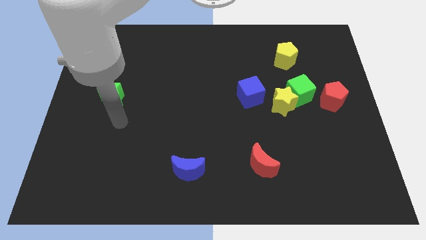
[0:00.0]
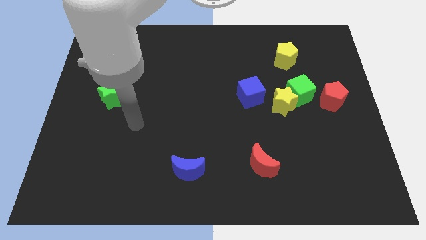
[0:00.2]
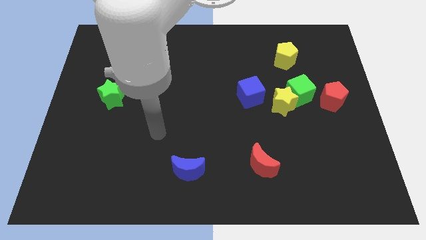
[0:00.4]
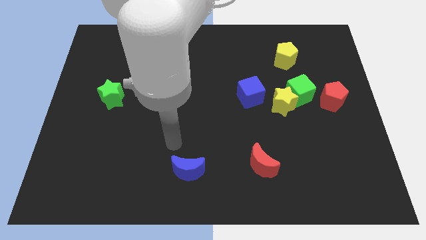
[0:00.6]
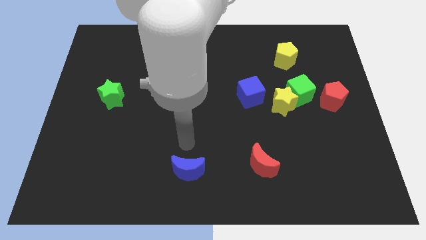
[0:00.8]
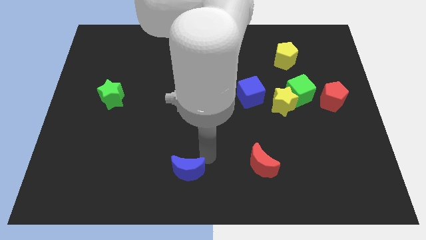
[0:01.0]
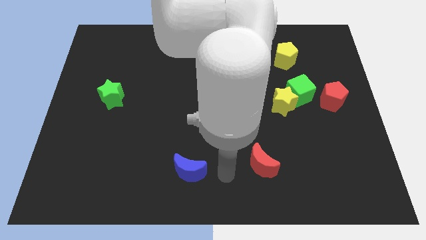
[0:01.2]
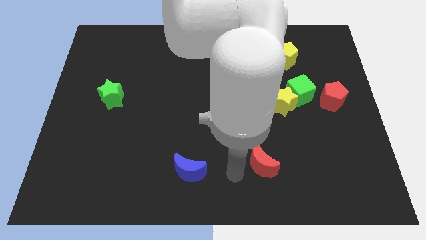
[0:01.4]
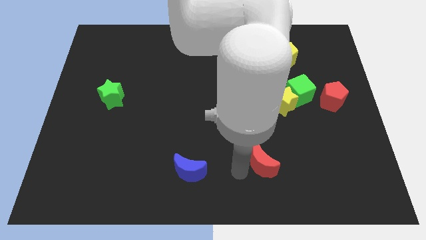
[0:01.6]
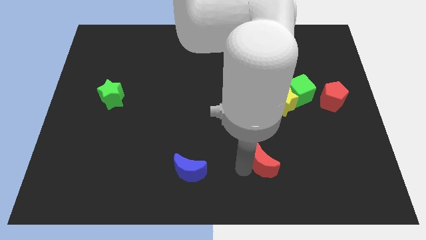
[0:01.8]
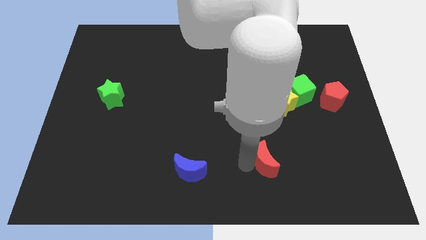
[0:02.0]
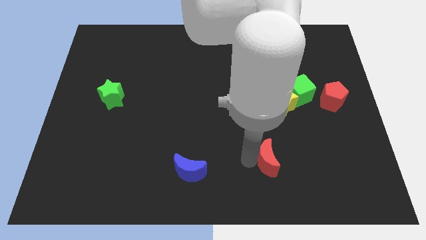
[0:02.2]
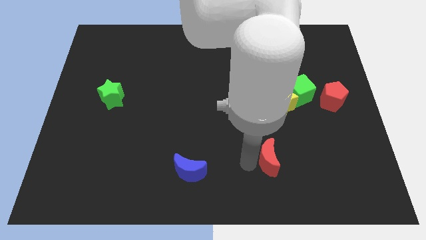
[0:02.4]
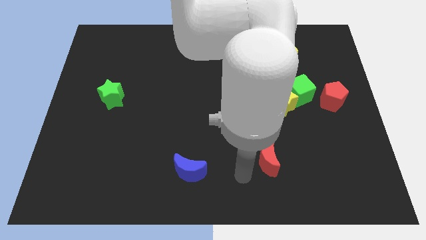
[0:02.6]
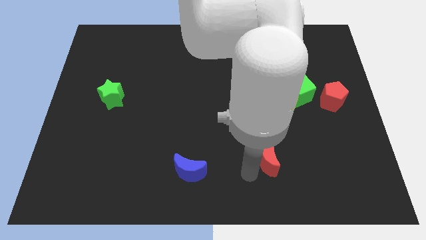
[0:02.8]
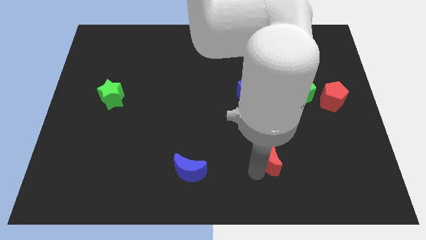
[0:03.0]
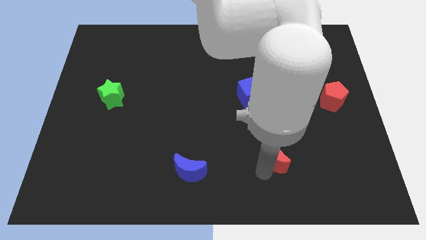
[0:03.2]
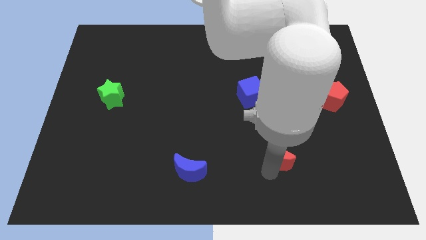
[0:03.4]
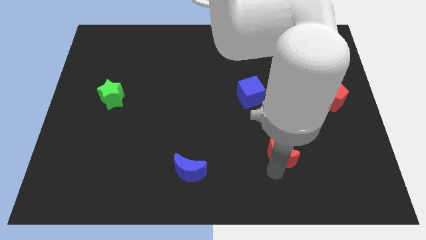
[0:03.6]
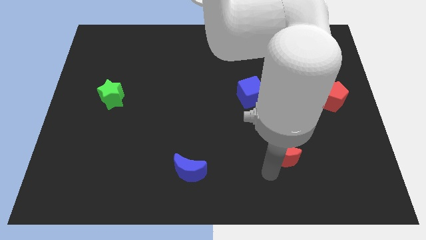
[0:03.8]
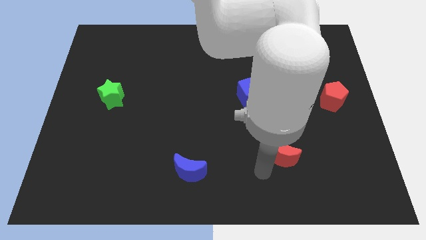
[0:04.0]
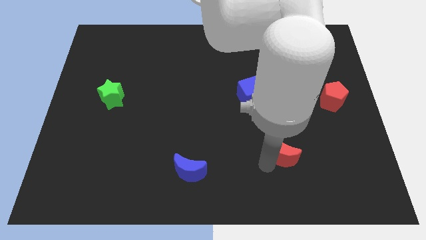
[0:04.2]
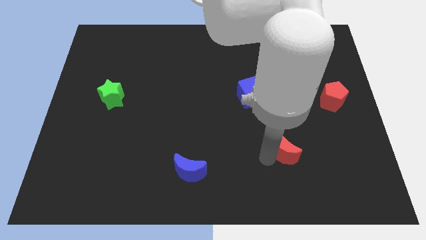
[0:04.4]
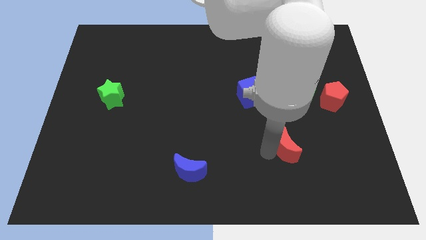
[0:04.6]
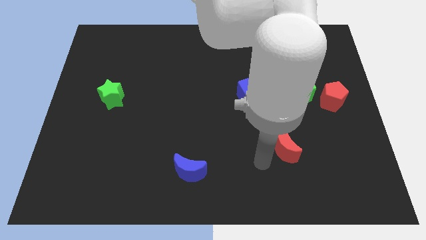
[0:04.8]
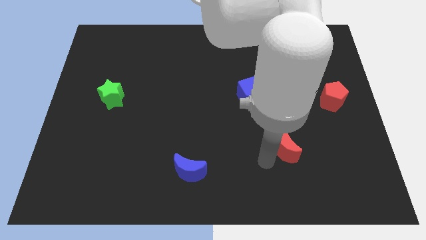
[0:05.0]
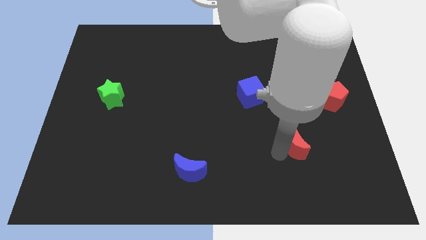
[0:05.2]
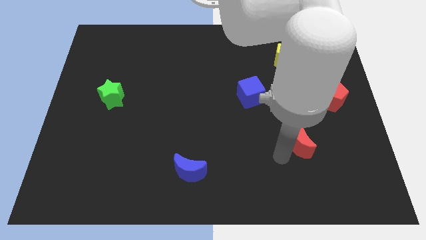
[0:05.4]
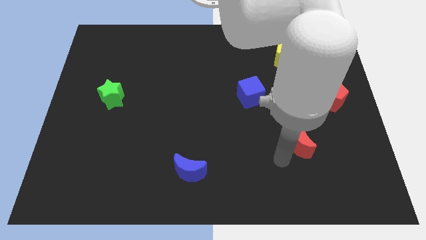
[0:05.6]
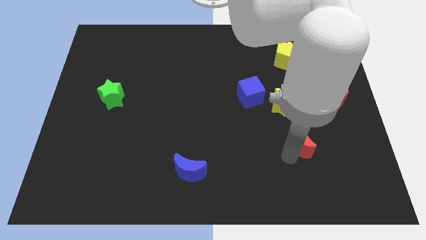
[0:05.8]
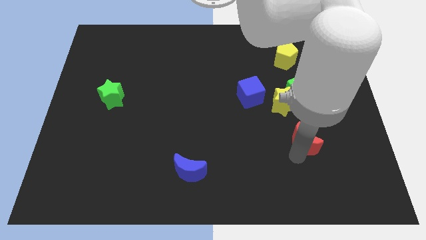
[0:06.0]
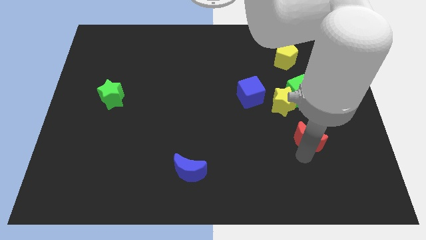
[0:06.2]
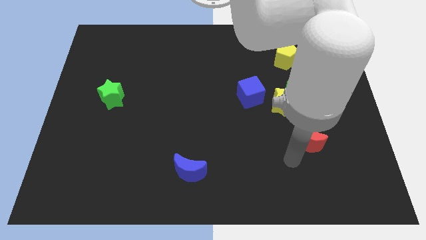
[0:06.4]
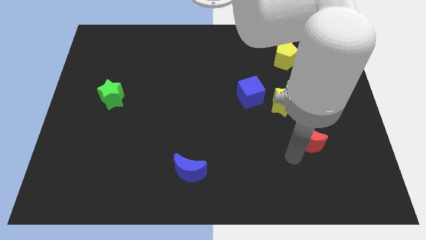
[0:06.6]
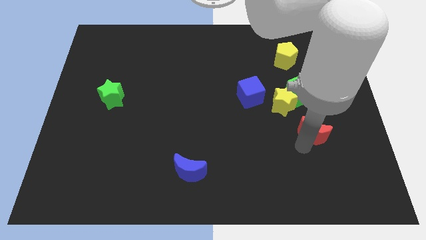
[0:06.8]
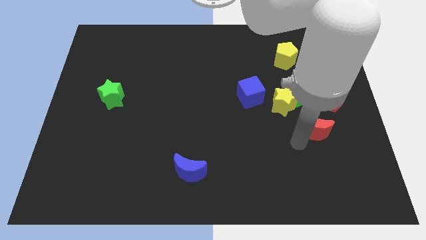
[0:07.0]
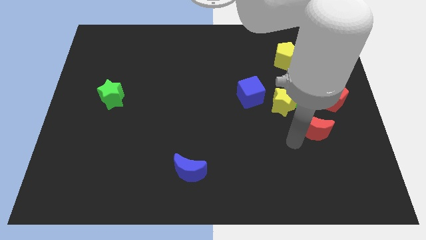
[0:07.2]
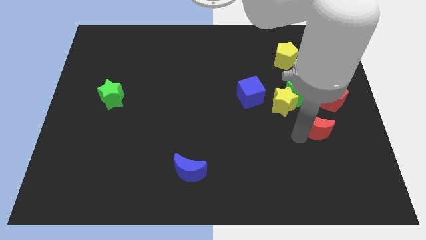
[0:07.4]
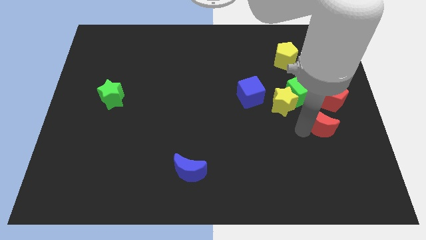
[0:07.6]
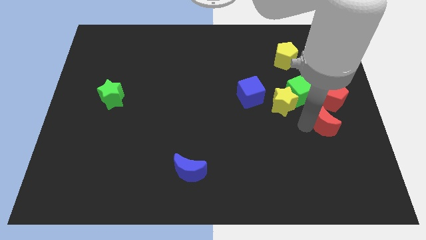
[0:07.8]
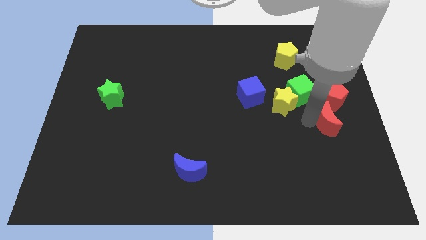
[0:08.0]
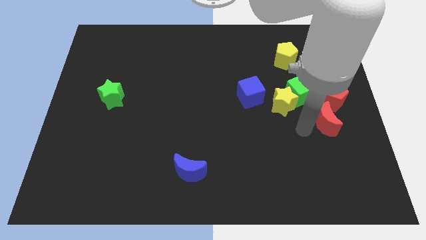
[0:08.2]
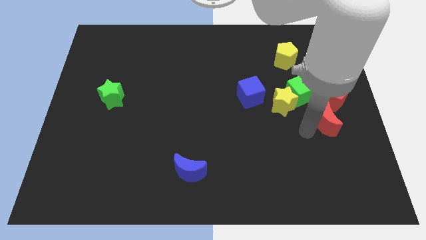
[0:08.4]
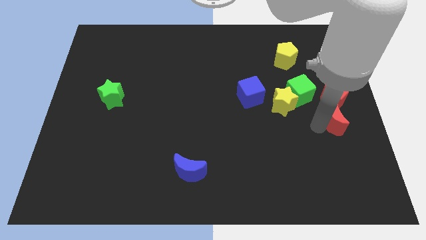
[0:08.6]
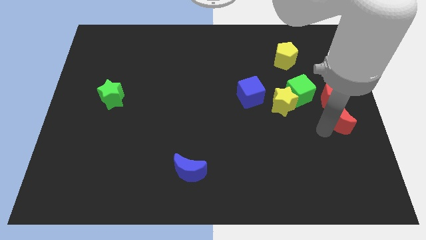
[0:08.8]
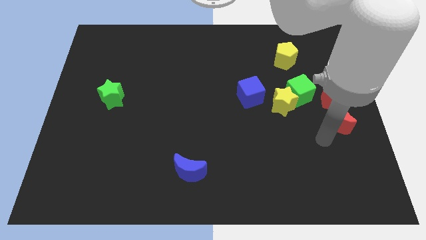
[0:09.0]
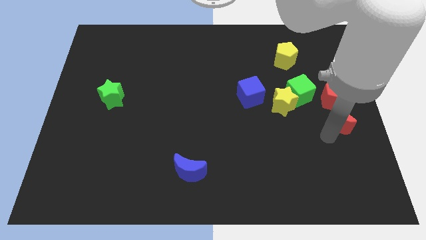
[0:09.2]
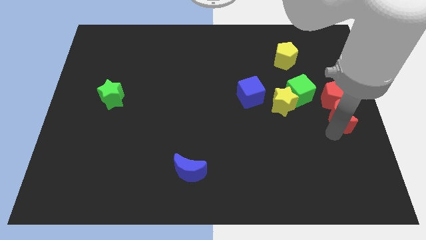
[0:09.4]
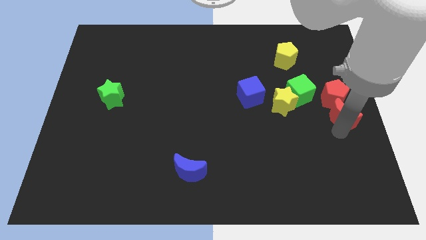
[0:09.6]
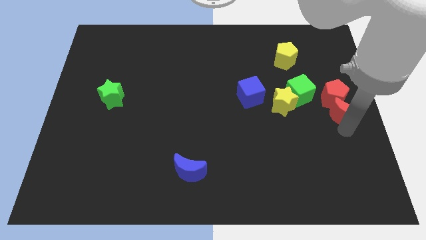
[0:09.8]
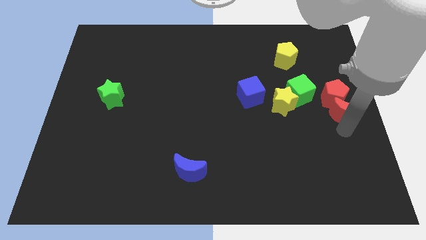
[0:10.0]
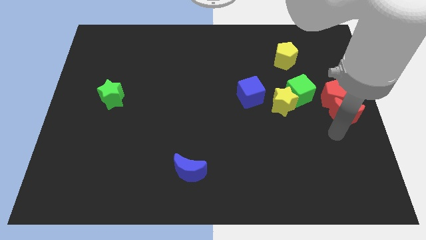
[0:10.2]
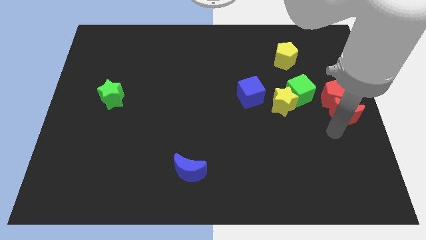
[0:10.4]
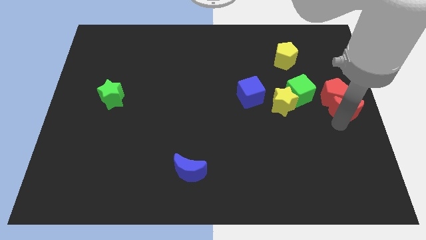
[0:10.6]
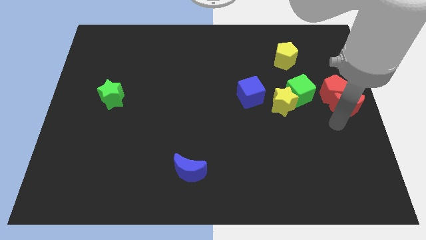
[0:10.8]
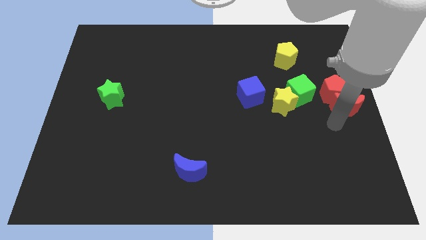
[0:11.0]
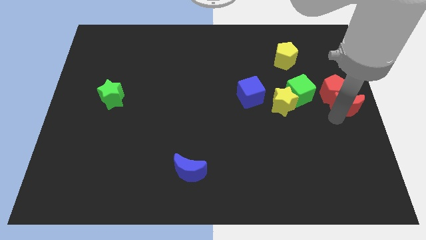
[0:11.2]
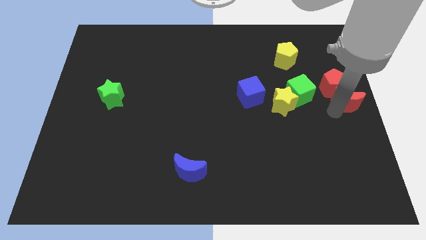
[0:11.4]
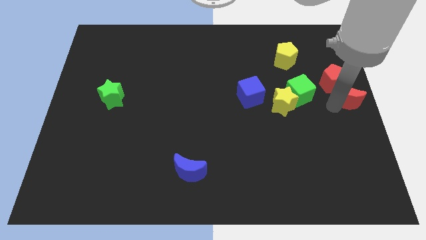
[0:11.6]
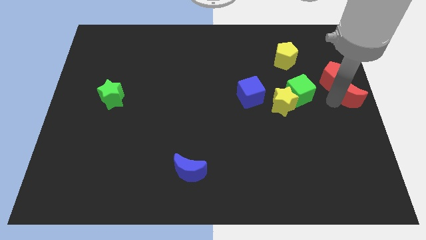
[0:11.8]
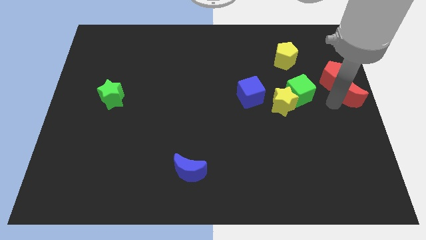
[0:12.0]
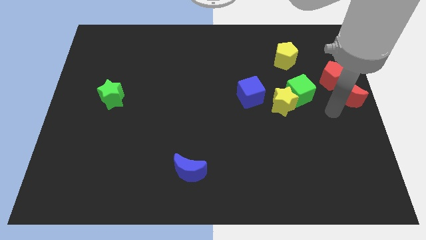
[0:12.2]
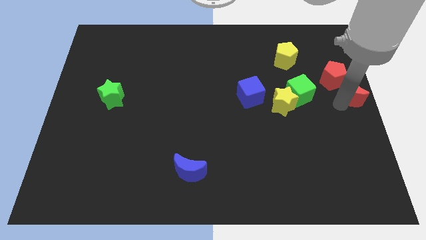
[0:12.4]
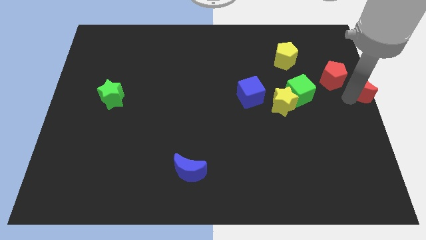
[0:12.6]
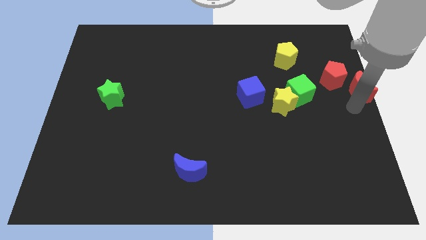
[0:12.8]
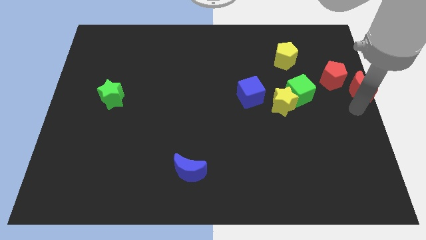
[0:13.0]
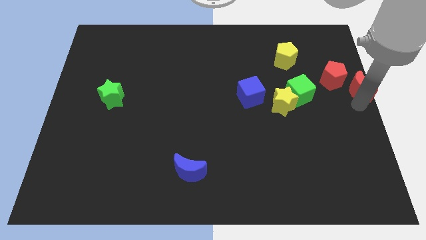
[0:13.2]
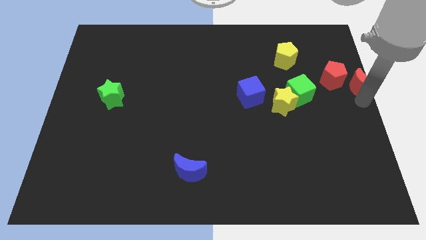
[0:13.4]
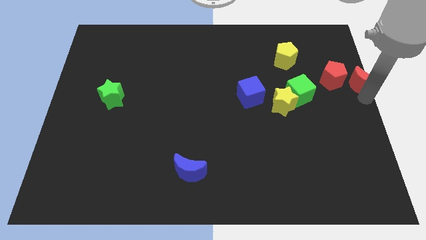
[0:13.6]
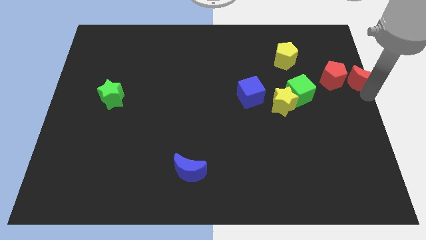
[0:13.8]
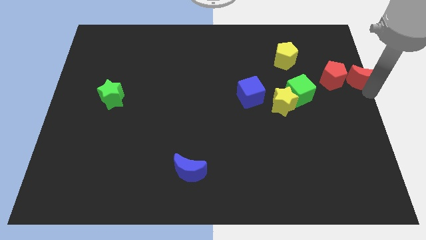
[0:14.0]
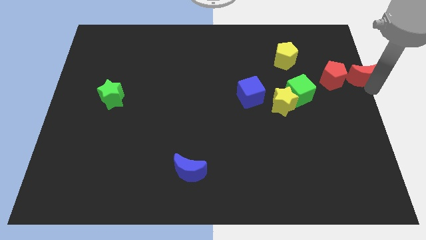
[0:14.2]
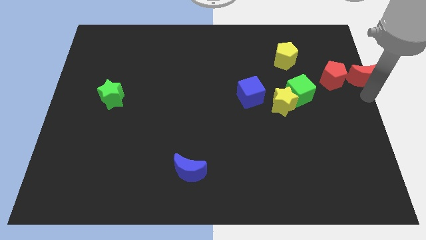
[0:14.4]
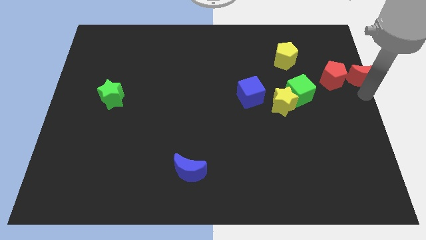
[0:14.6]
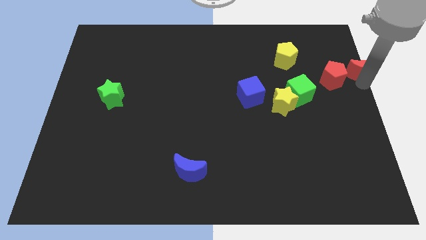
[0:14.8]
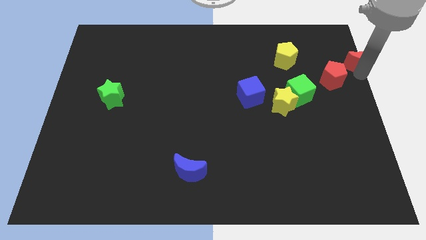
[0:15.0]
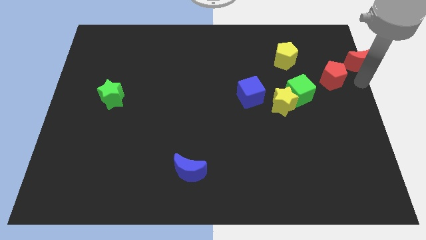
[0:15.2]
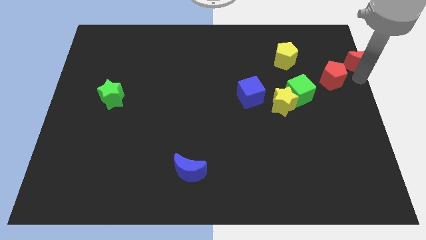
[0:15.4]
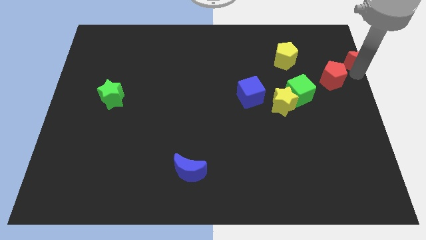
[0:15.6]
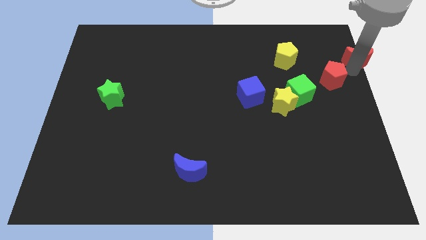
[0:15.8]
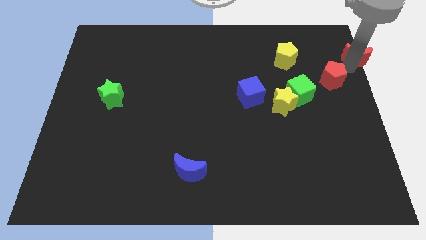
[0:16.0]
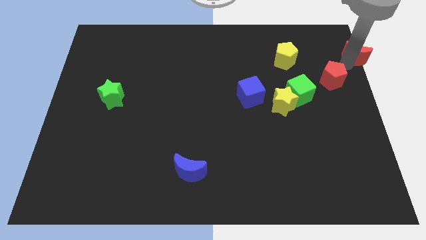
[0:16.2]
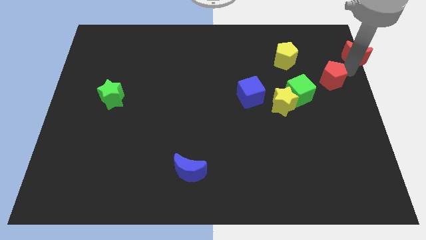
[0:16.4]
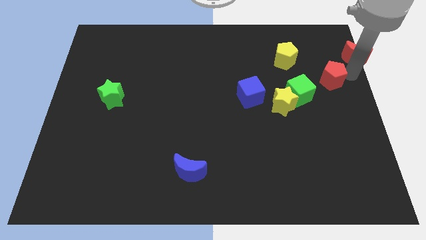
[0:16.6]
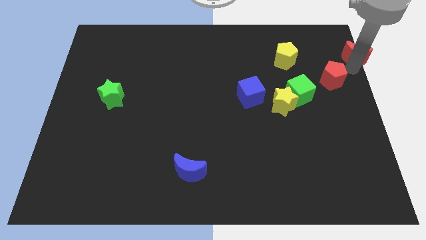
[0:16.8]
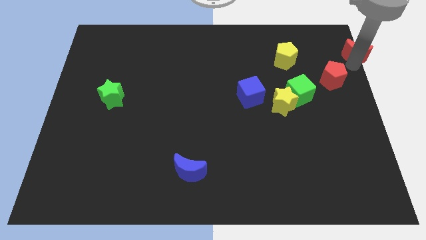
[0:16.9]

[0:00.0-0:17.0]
move the red moon to the top right
